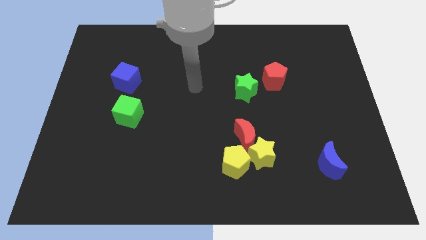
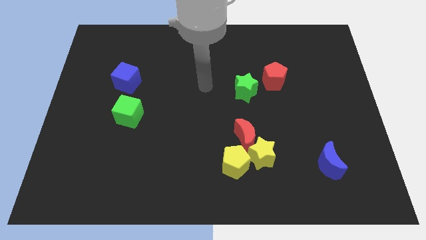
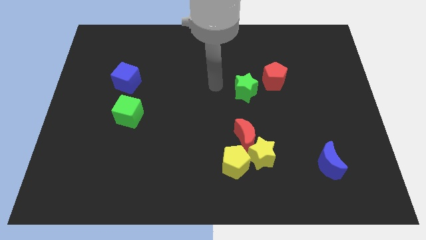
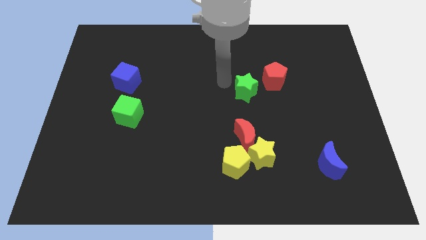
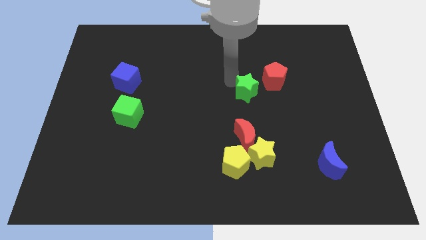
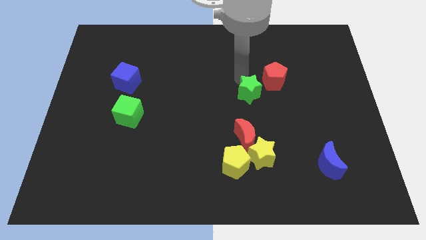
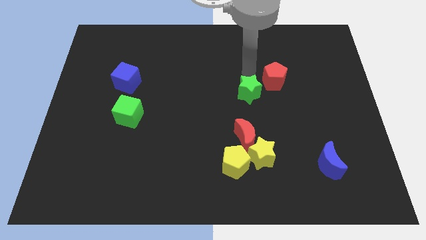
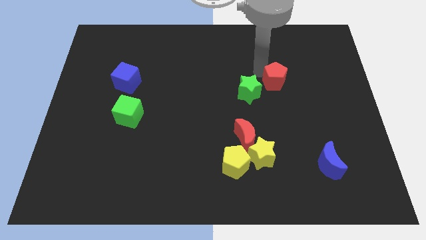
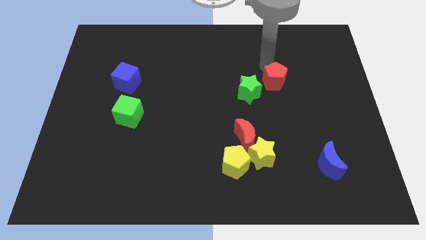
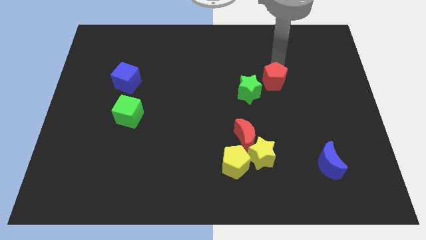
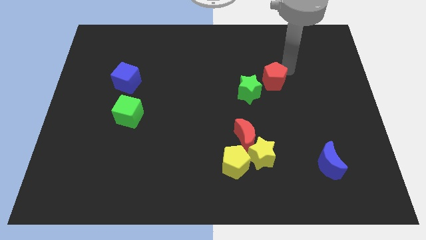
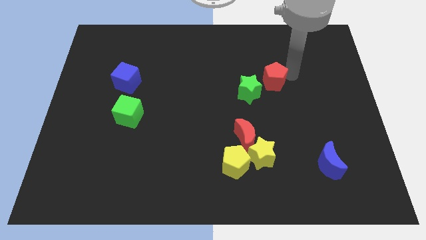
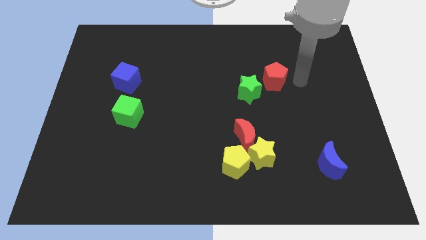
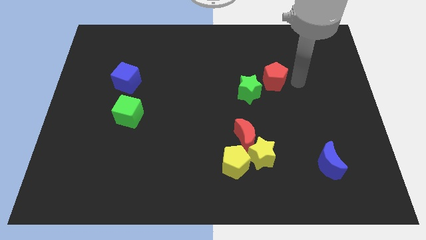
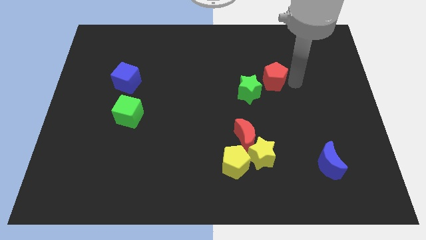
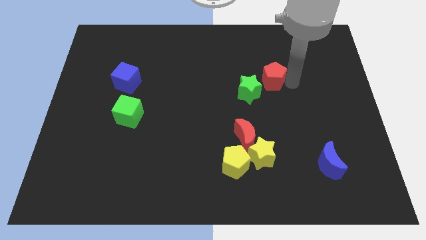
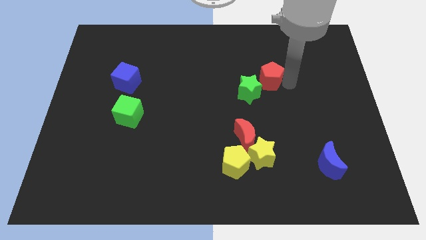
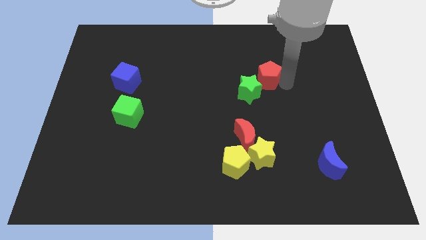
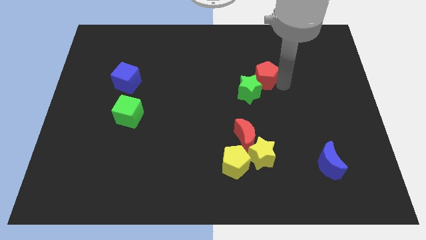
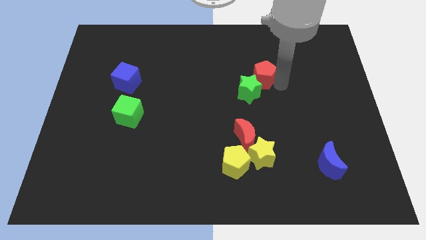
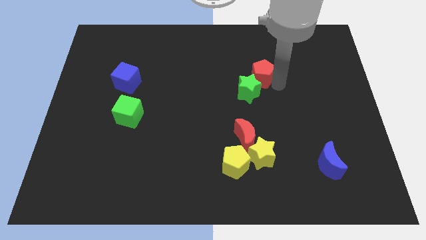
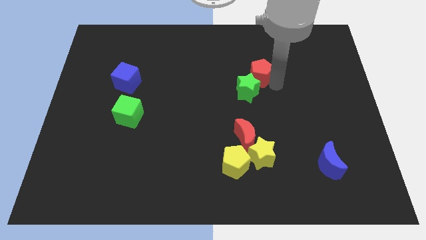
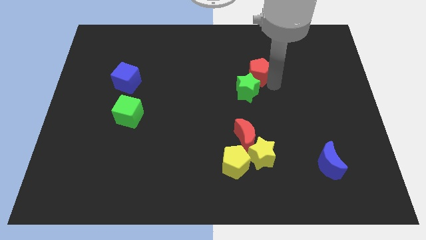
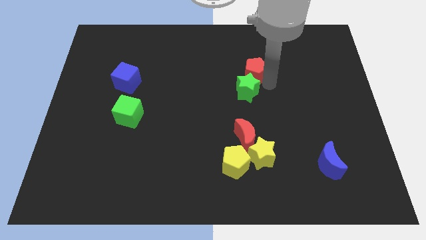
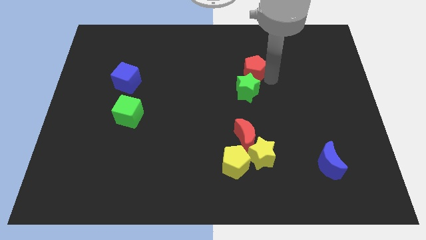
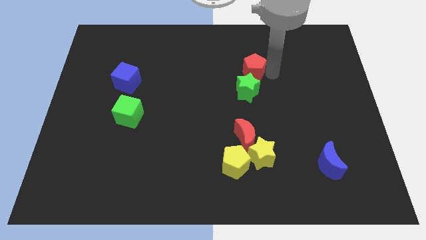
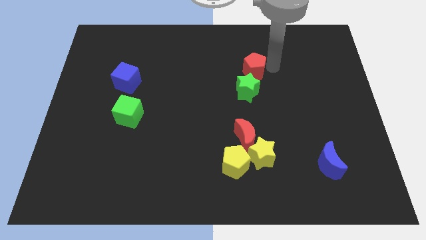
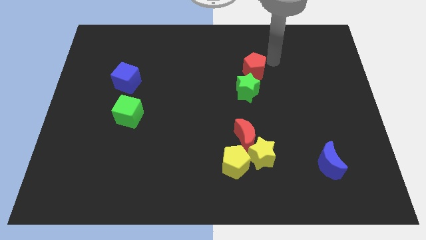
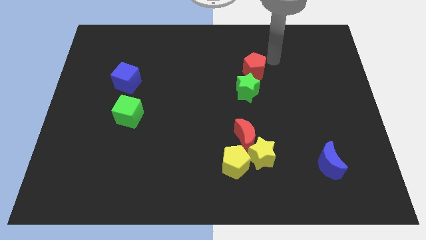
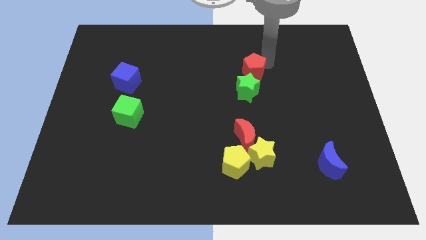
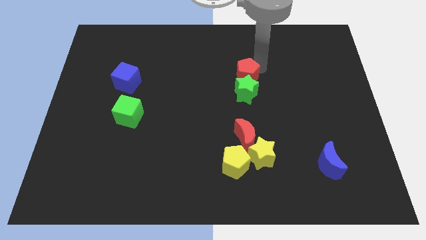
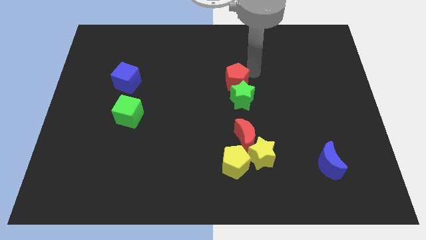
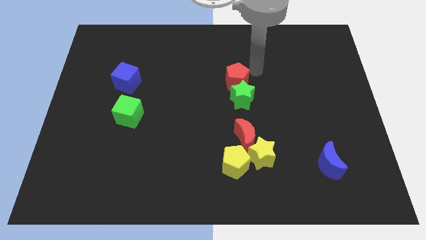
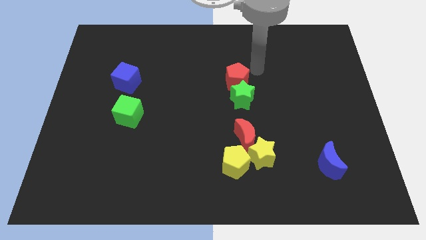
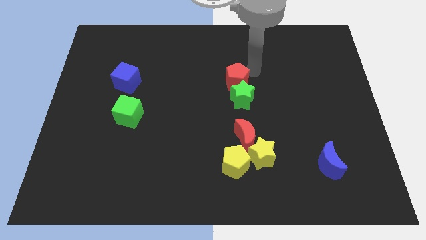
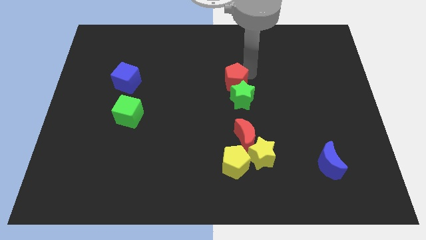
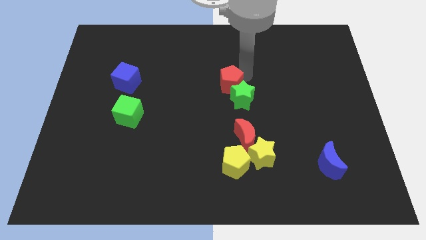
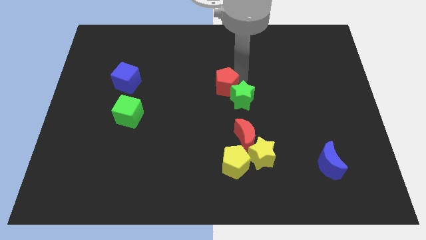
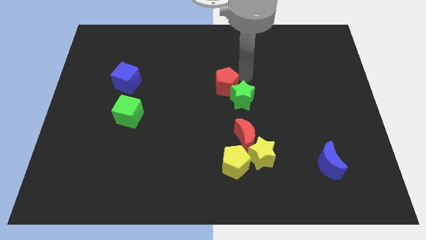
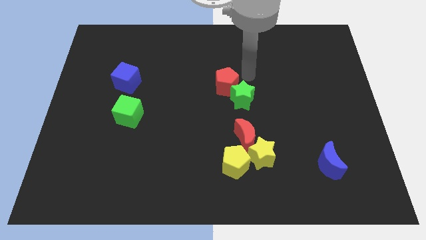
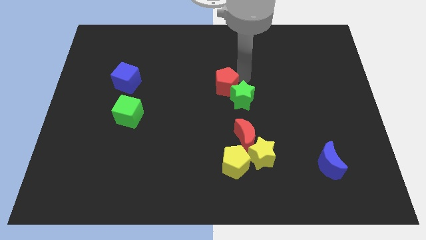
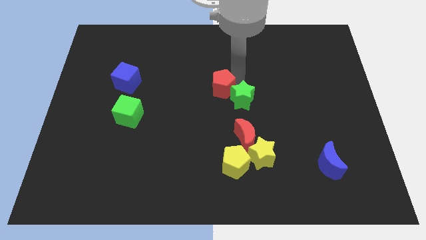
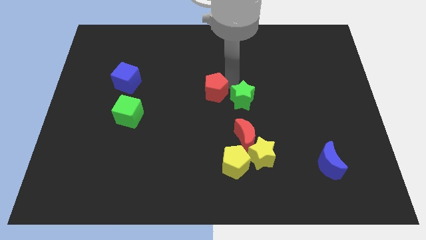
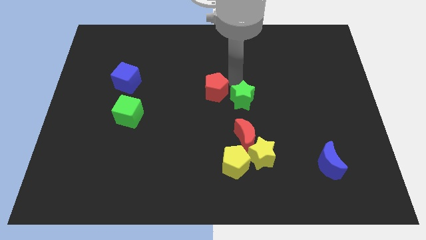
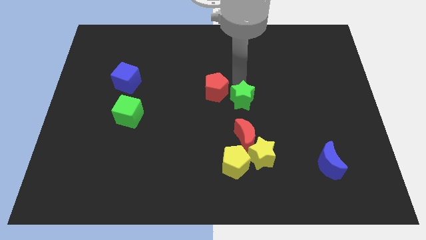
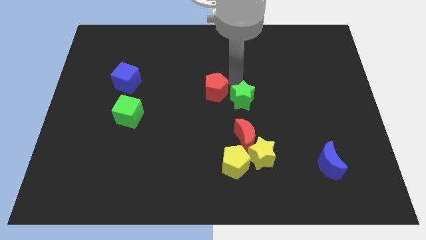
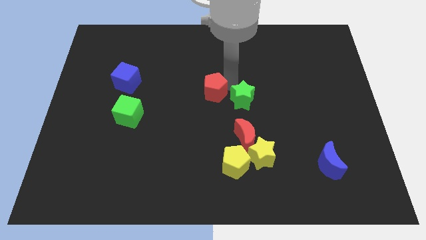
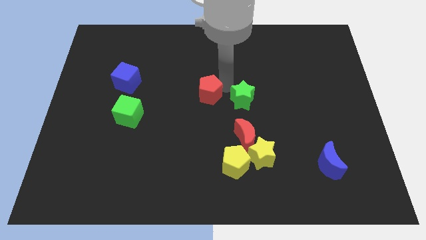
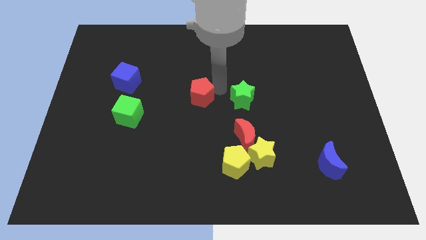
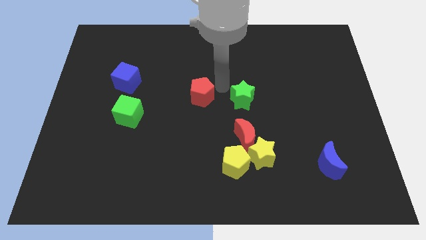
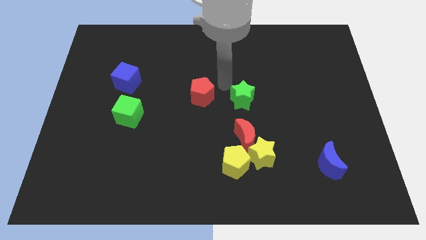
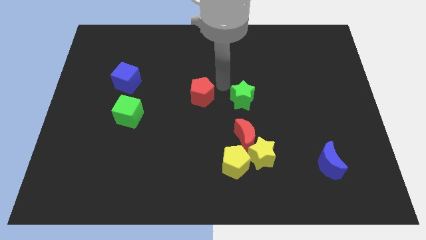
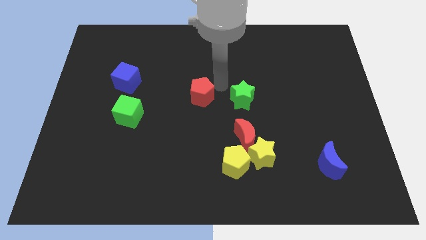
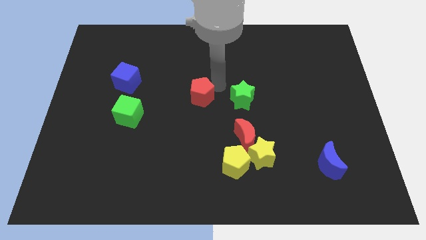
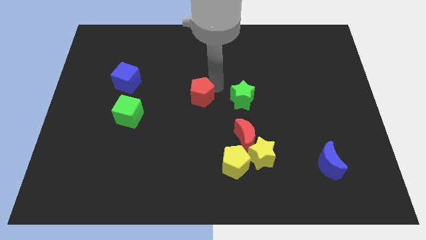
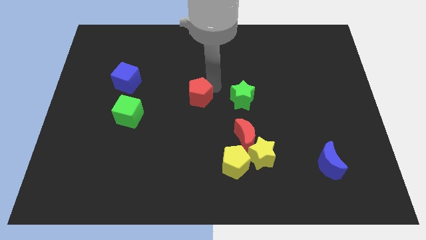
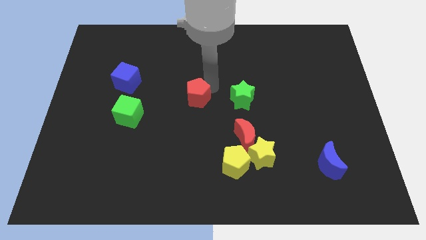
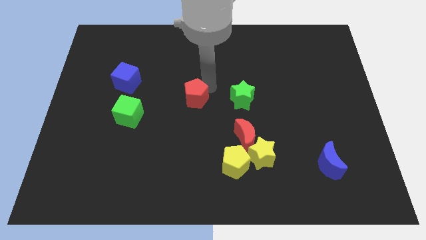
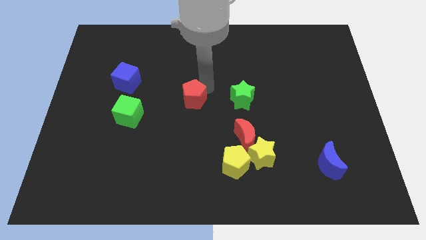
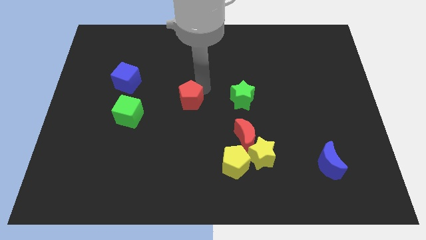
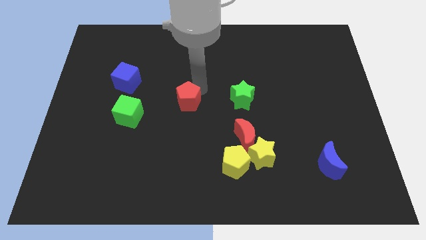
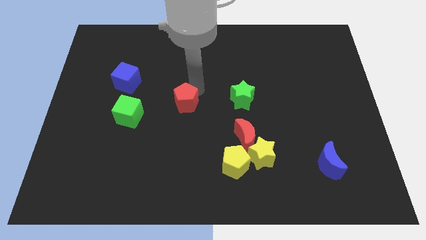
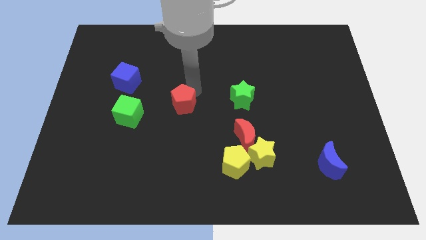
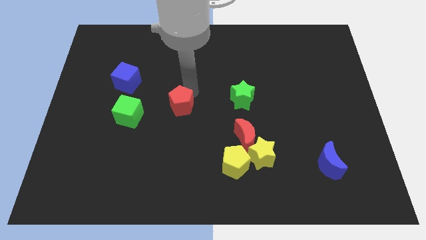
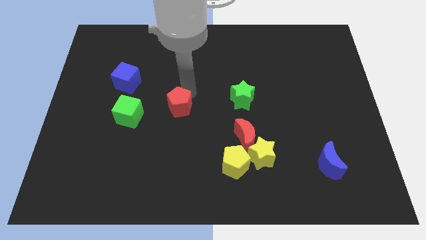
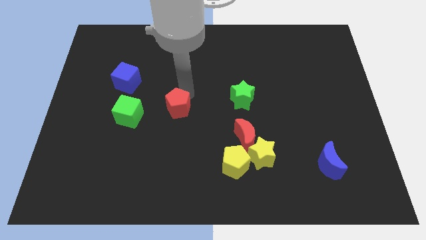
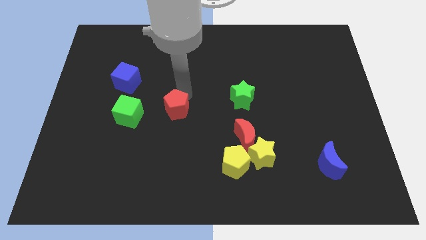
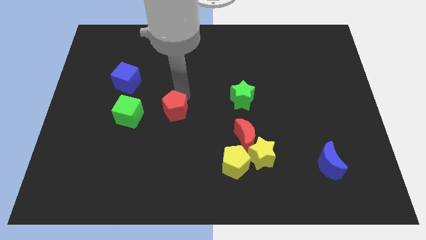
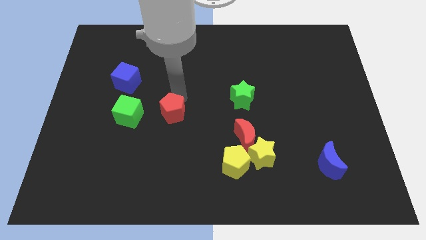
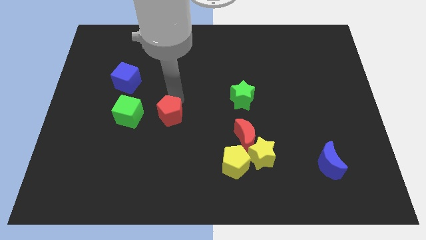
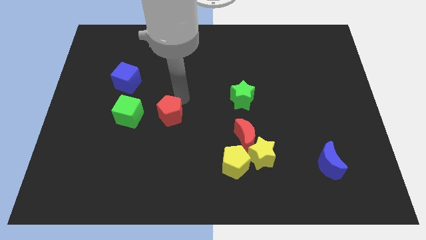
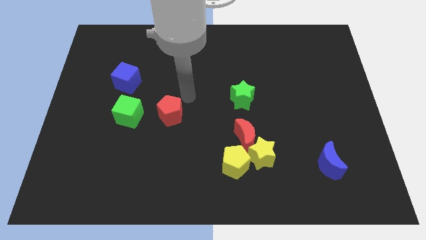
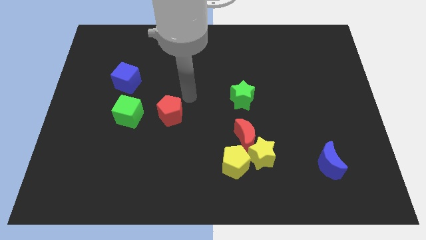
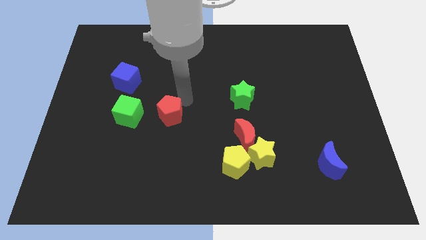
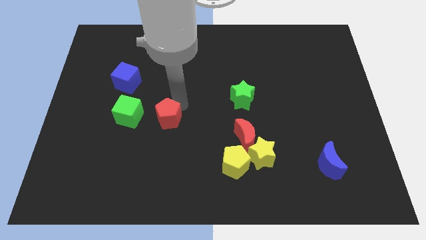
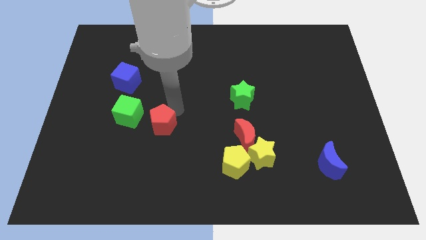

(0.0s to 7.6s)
slide the red pentagon to the bottom right side of the green cube
